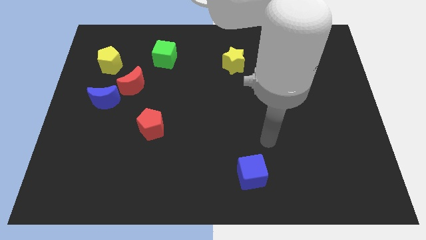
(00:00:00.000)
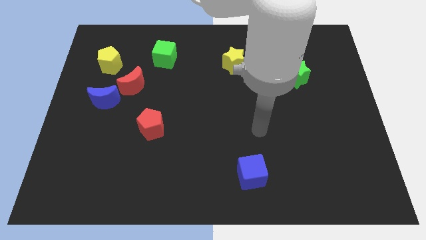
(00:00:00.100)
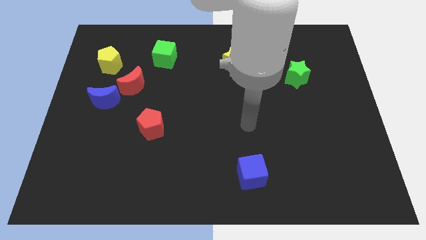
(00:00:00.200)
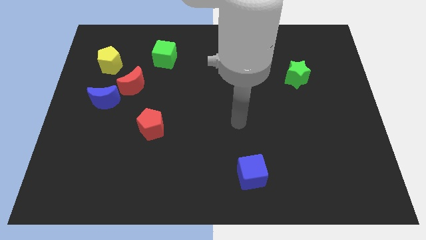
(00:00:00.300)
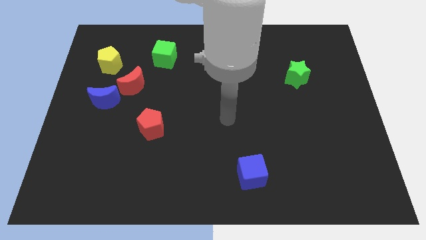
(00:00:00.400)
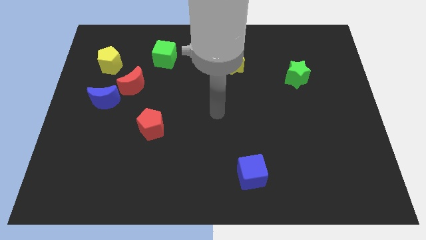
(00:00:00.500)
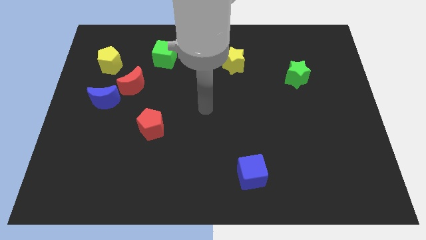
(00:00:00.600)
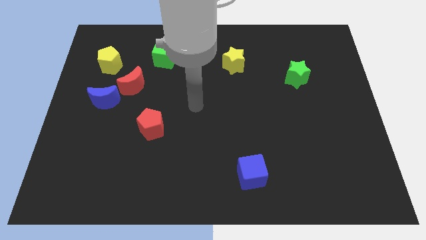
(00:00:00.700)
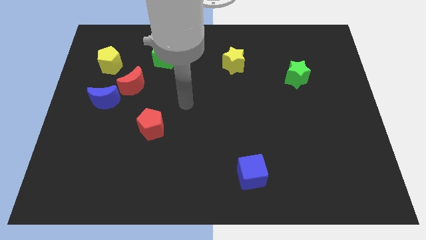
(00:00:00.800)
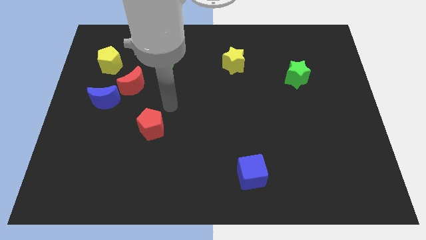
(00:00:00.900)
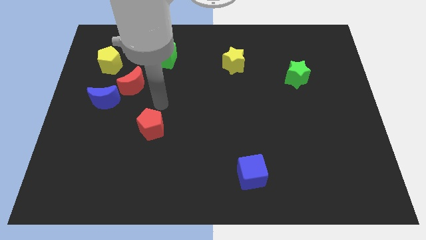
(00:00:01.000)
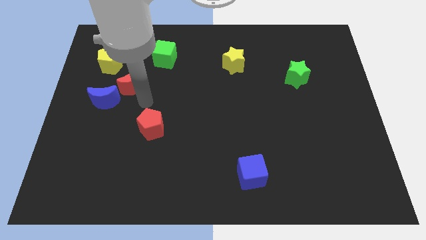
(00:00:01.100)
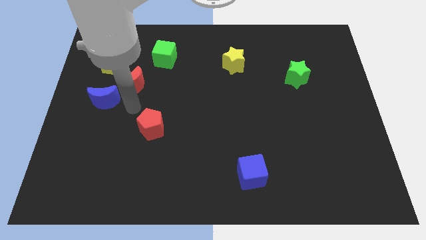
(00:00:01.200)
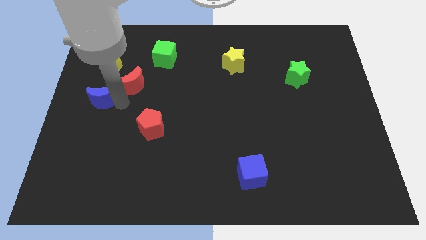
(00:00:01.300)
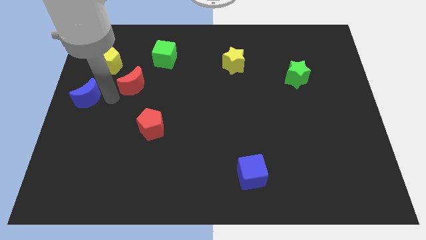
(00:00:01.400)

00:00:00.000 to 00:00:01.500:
move the red moon away from the blue moon

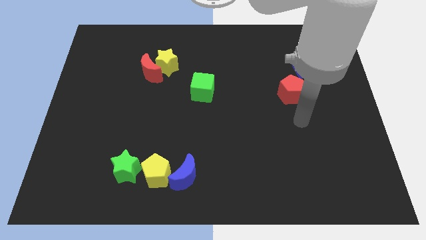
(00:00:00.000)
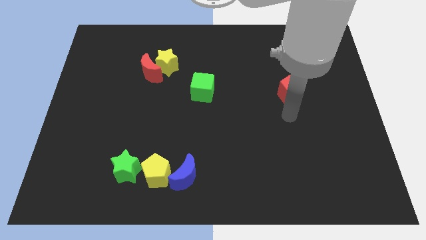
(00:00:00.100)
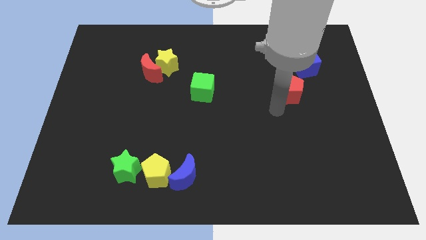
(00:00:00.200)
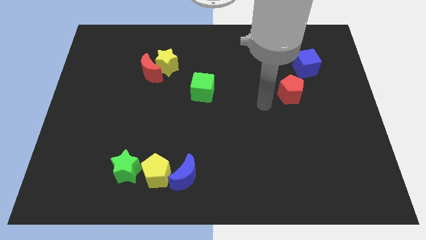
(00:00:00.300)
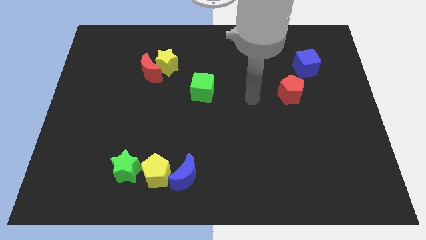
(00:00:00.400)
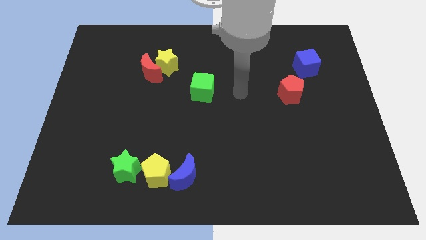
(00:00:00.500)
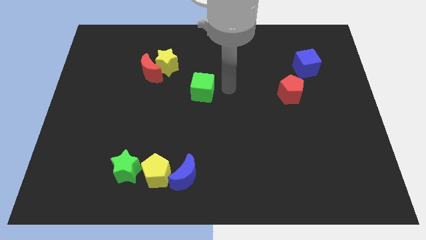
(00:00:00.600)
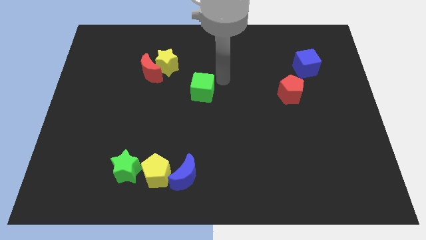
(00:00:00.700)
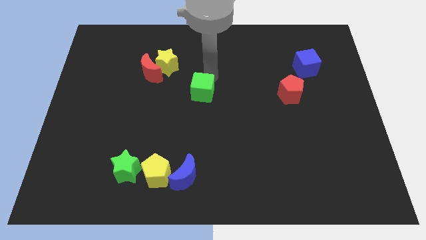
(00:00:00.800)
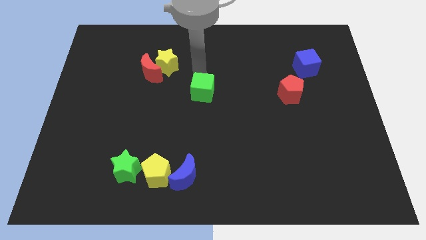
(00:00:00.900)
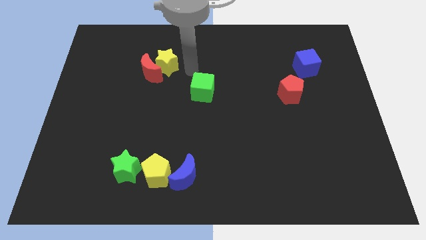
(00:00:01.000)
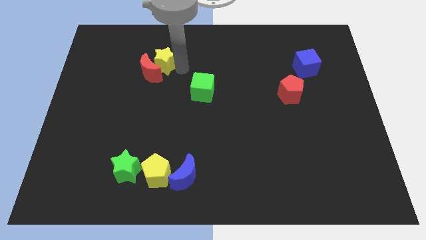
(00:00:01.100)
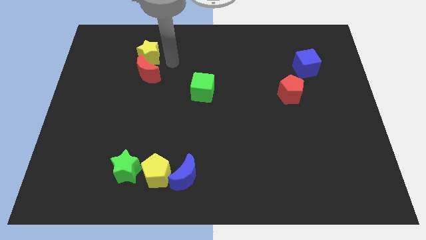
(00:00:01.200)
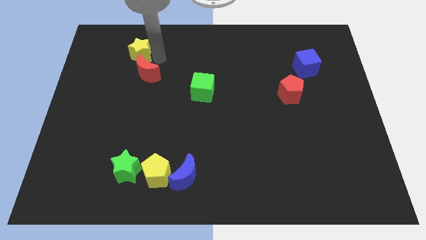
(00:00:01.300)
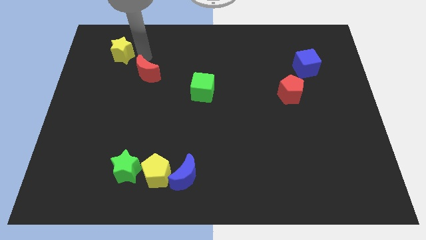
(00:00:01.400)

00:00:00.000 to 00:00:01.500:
separate the red moon from the yellow star

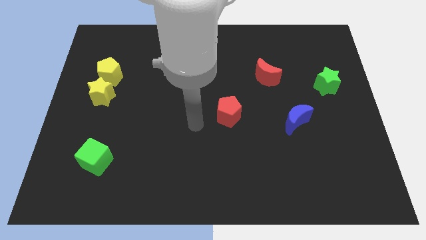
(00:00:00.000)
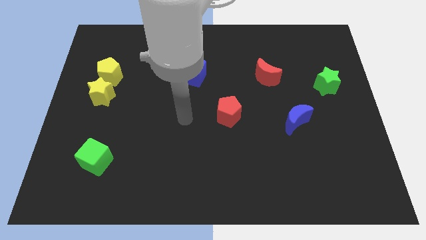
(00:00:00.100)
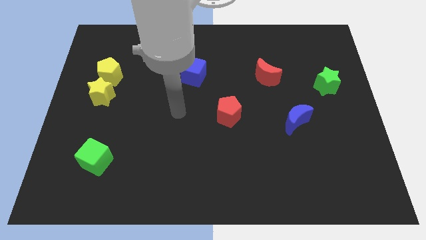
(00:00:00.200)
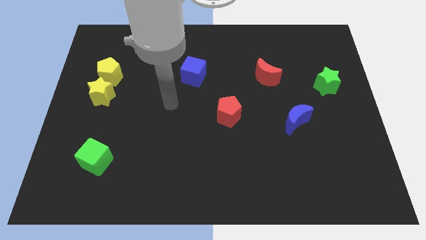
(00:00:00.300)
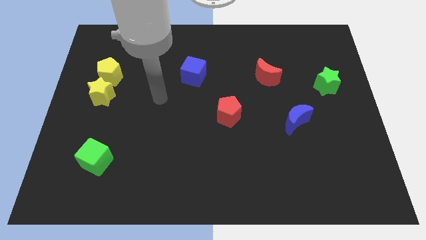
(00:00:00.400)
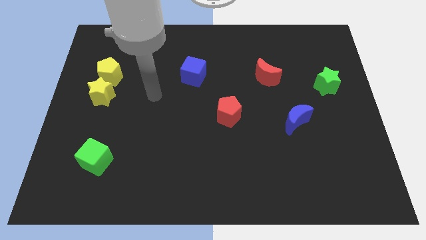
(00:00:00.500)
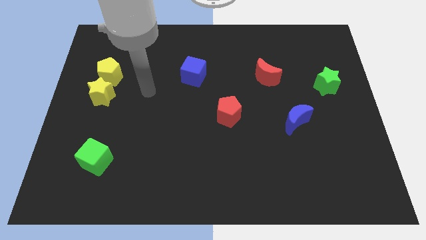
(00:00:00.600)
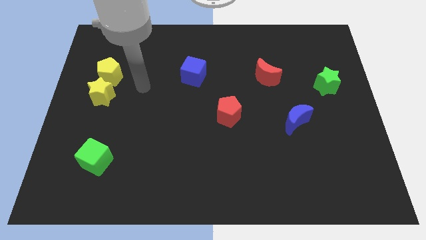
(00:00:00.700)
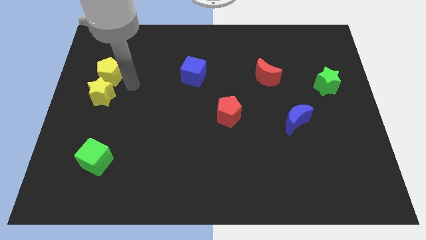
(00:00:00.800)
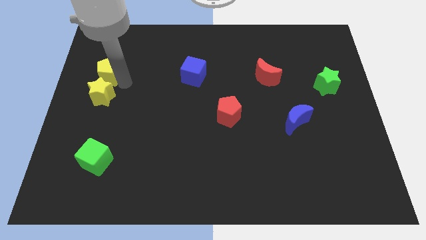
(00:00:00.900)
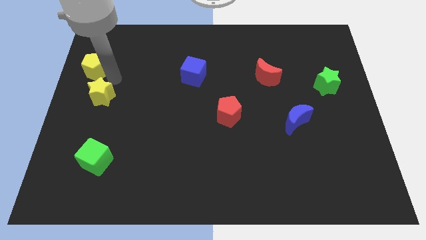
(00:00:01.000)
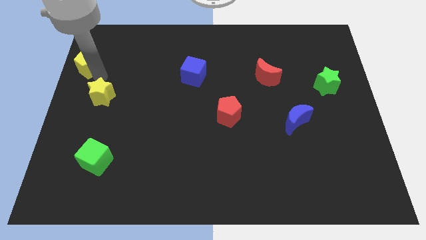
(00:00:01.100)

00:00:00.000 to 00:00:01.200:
separate the yellow star from the yellow pentagon

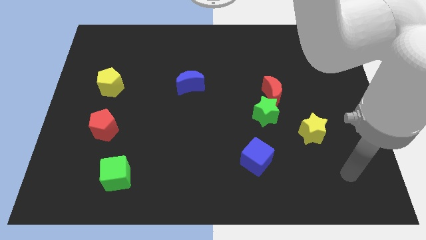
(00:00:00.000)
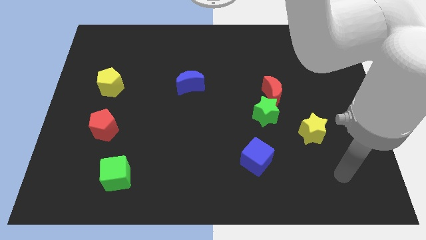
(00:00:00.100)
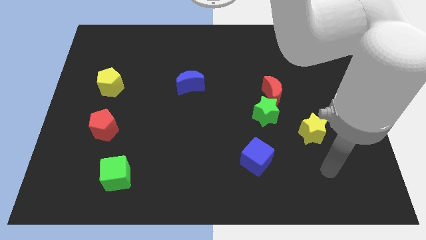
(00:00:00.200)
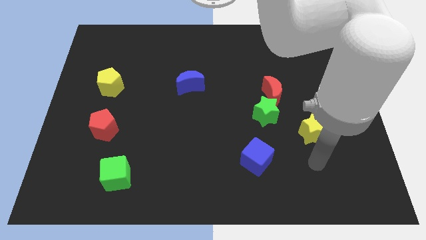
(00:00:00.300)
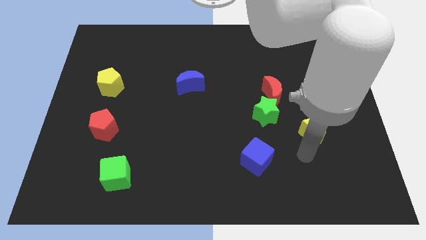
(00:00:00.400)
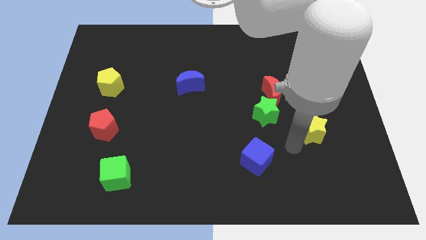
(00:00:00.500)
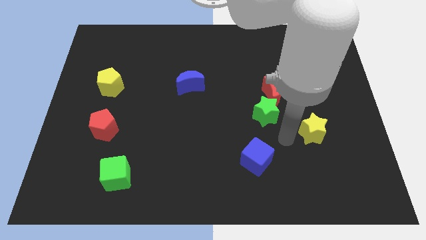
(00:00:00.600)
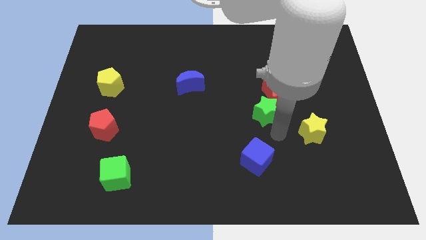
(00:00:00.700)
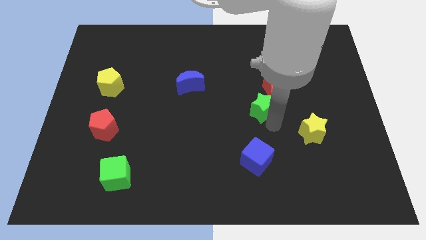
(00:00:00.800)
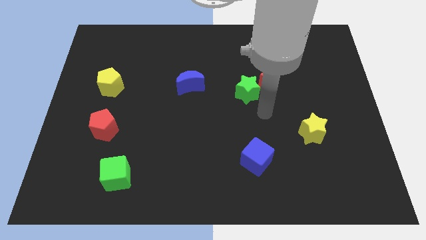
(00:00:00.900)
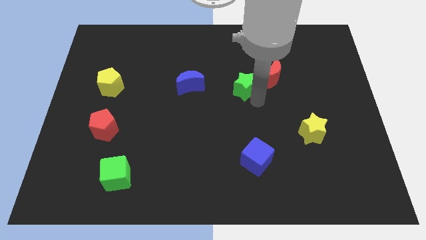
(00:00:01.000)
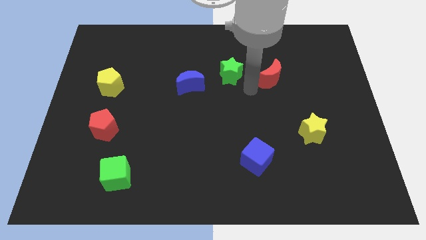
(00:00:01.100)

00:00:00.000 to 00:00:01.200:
pull the red moon apart from the green star

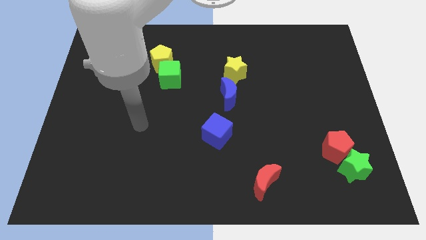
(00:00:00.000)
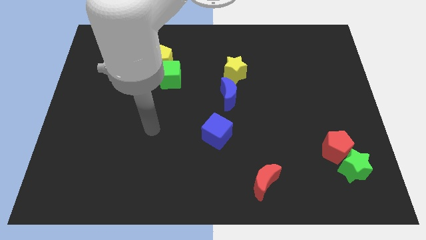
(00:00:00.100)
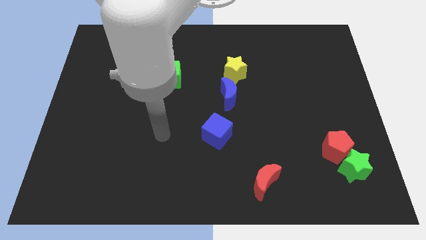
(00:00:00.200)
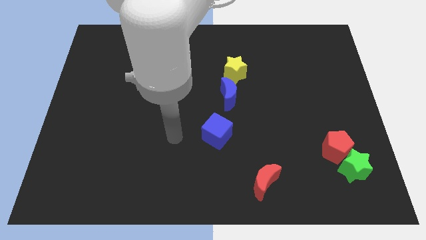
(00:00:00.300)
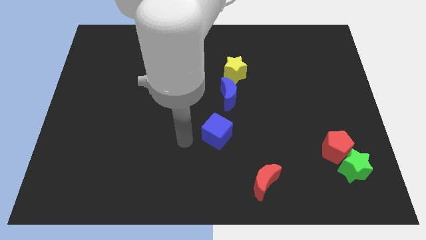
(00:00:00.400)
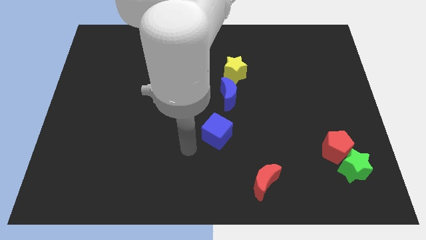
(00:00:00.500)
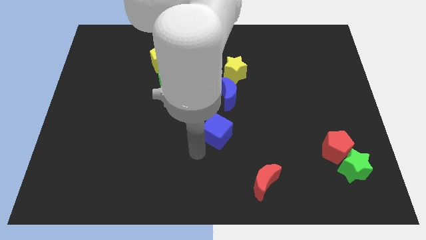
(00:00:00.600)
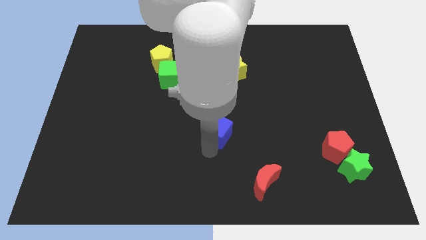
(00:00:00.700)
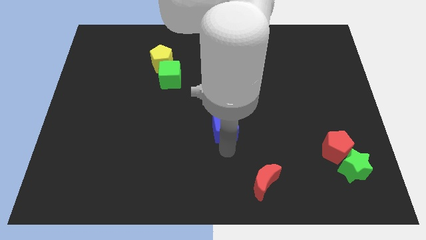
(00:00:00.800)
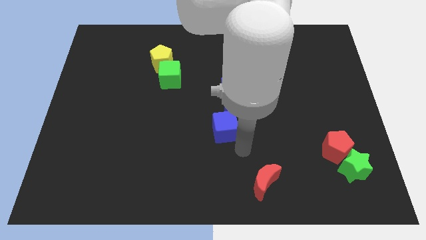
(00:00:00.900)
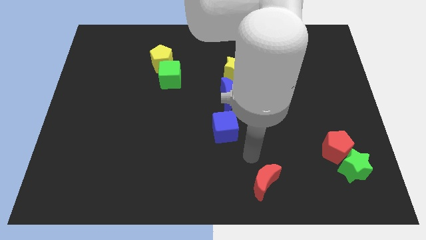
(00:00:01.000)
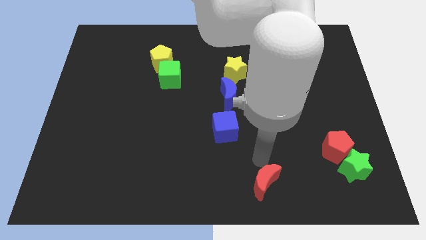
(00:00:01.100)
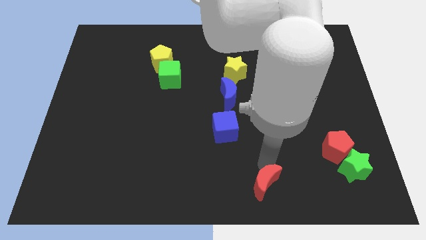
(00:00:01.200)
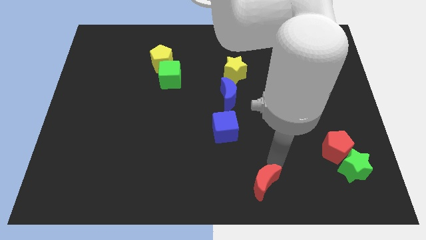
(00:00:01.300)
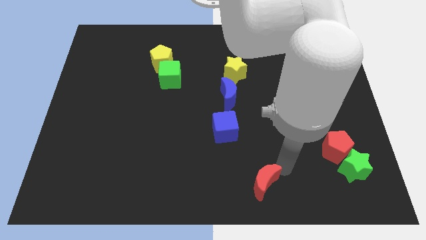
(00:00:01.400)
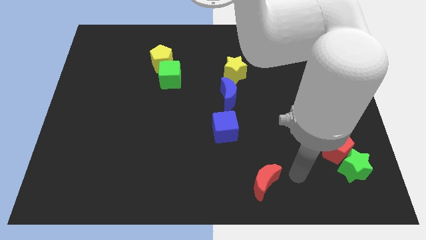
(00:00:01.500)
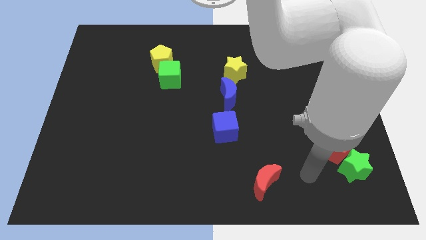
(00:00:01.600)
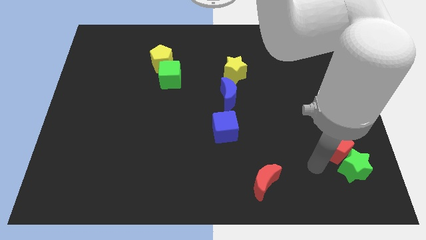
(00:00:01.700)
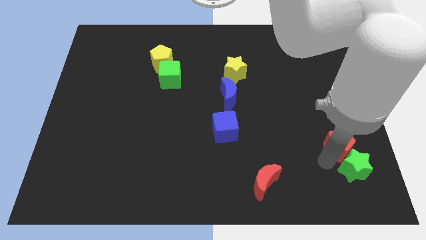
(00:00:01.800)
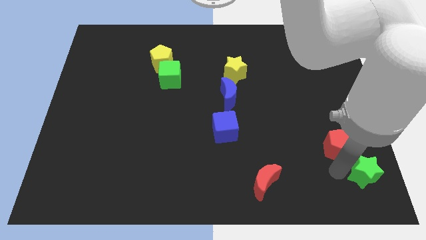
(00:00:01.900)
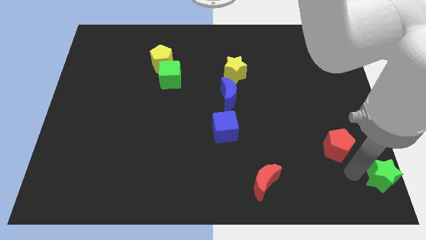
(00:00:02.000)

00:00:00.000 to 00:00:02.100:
move the red pentagon away from the green star

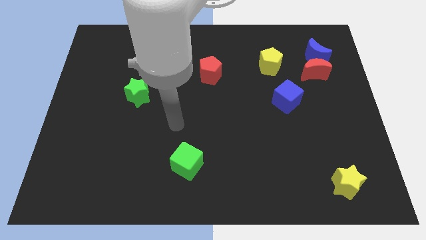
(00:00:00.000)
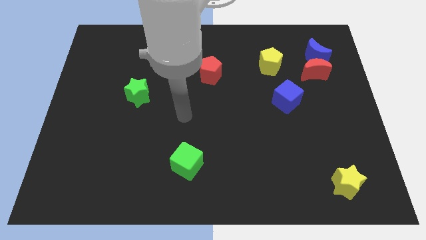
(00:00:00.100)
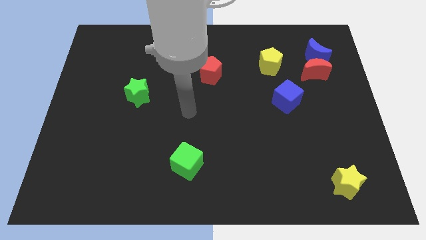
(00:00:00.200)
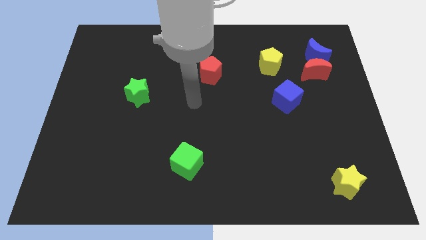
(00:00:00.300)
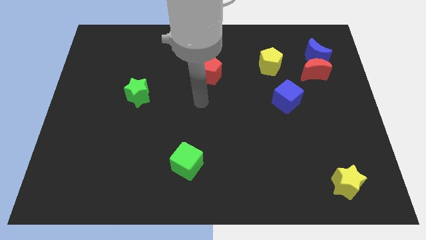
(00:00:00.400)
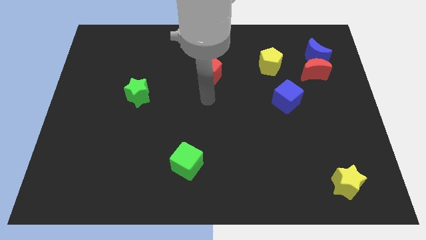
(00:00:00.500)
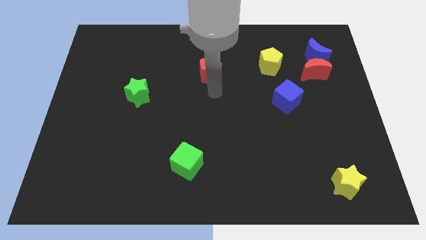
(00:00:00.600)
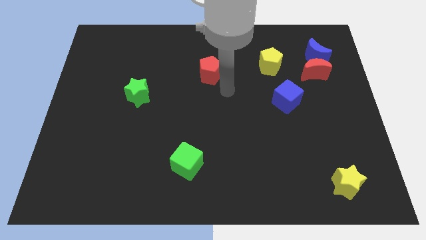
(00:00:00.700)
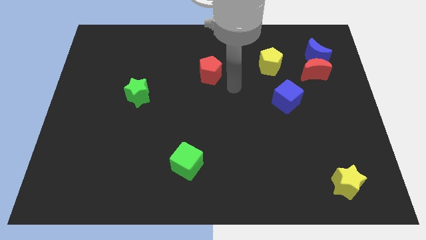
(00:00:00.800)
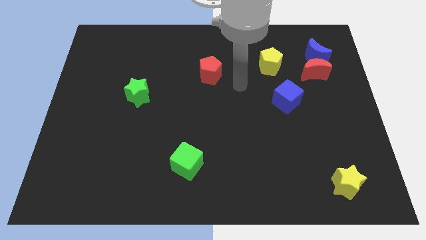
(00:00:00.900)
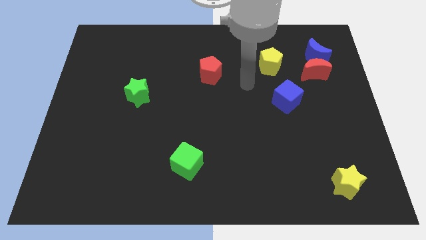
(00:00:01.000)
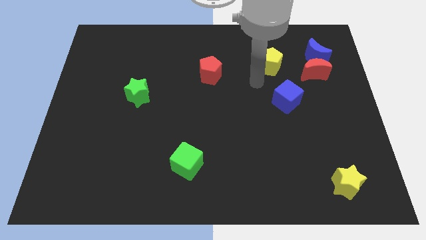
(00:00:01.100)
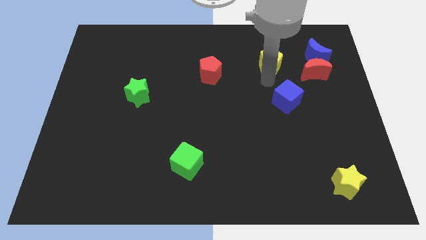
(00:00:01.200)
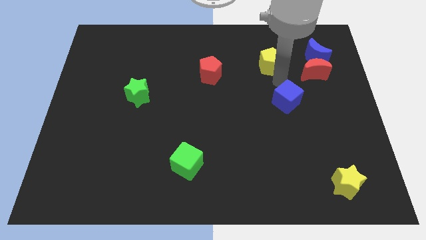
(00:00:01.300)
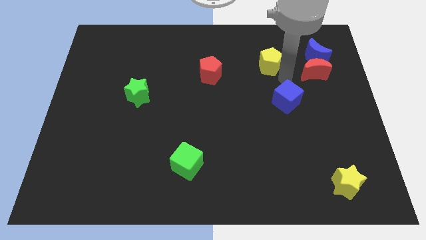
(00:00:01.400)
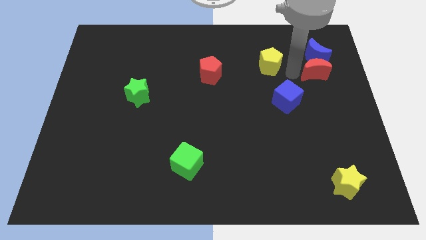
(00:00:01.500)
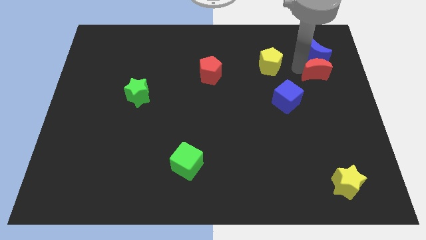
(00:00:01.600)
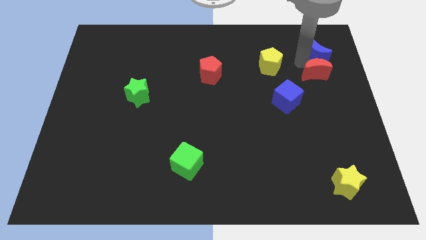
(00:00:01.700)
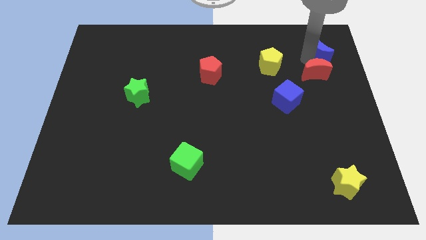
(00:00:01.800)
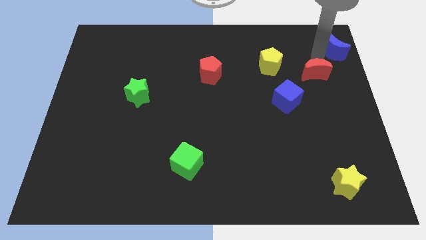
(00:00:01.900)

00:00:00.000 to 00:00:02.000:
pull the red moon apart from the blue moon
